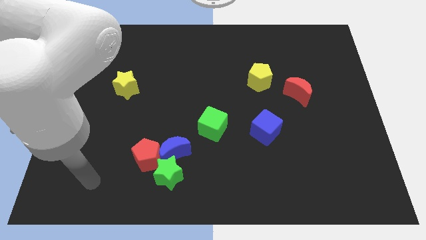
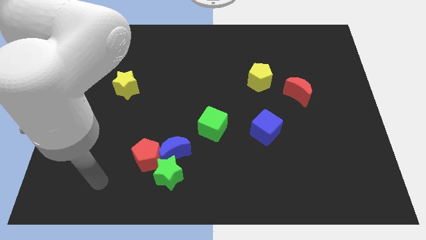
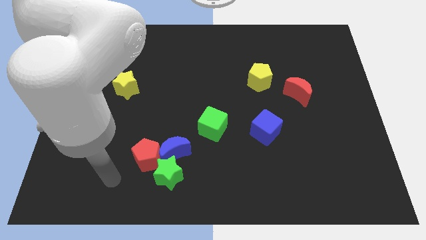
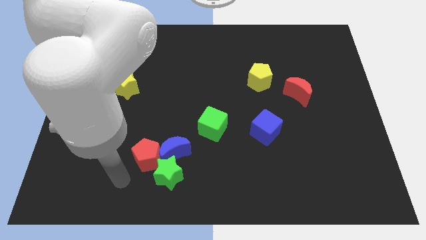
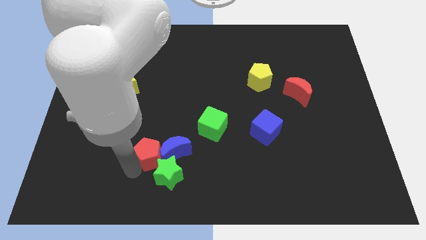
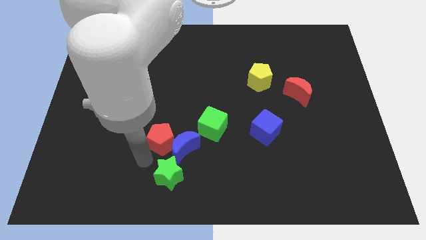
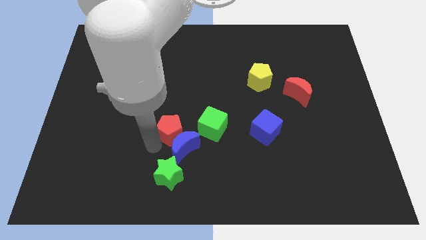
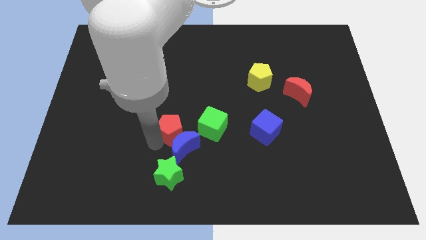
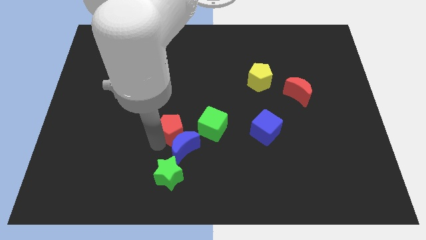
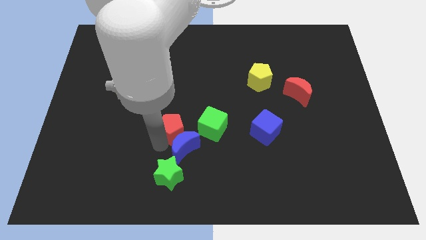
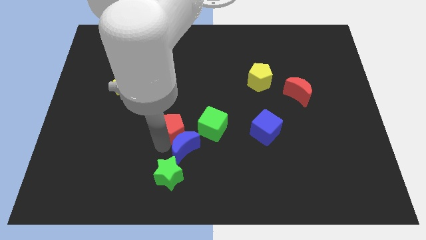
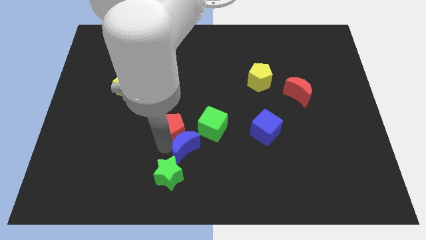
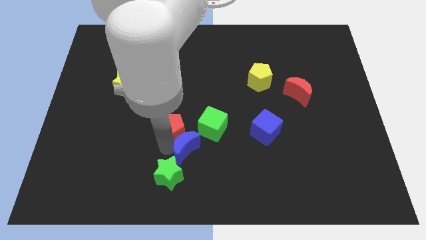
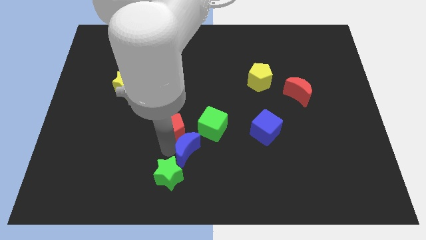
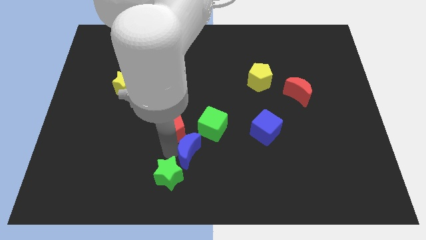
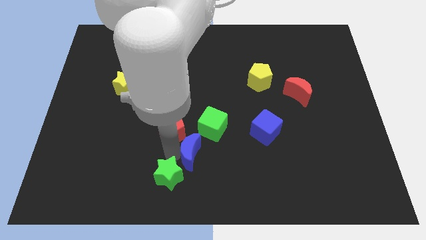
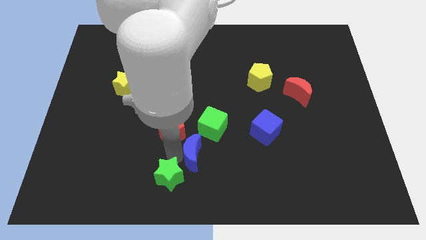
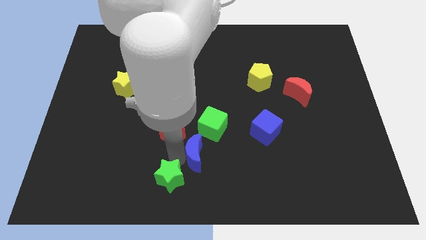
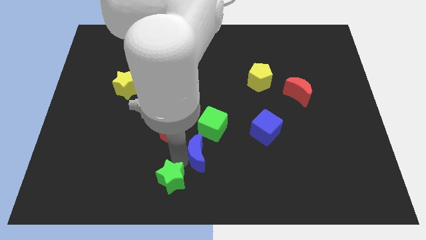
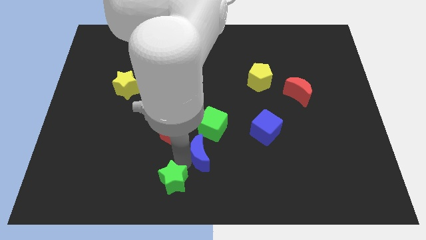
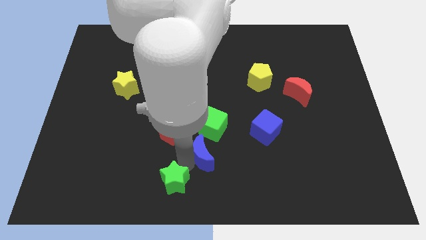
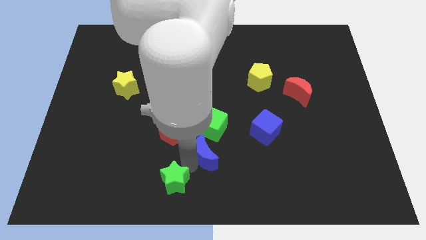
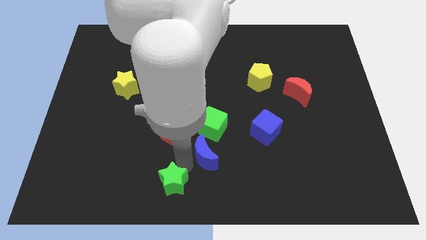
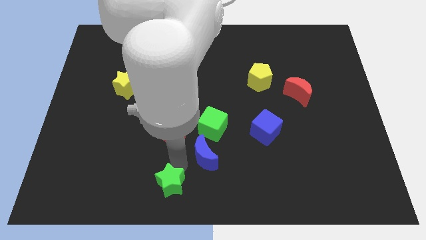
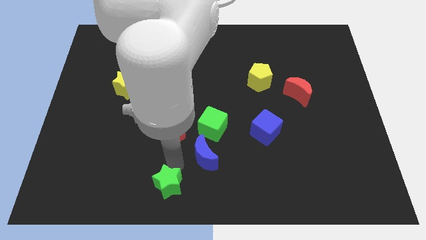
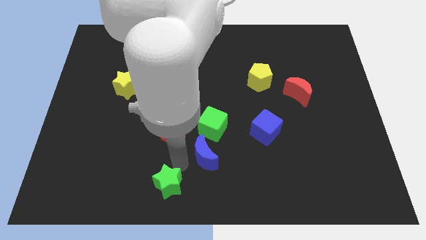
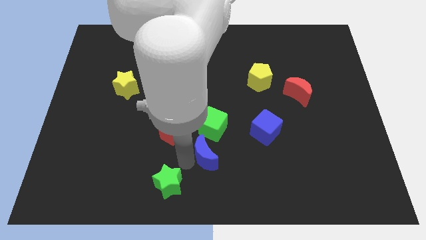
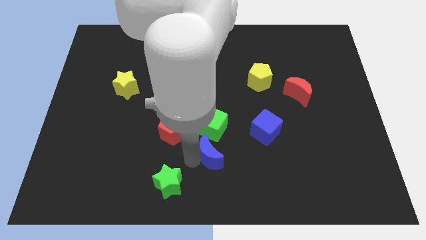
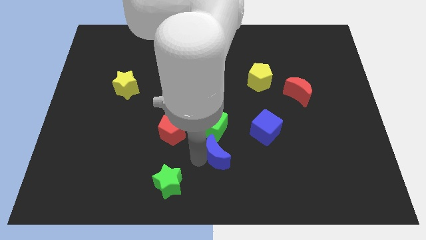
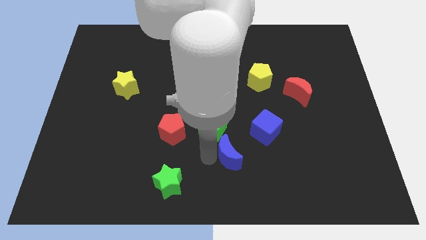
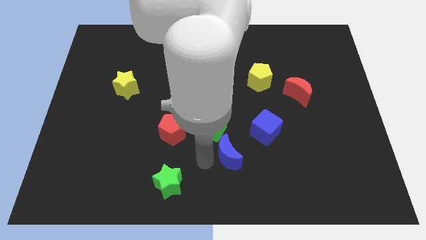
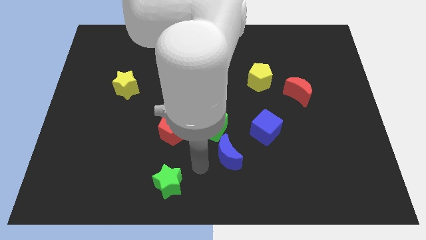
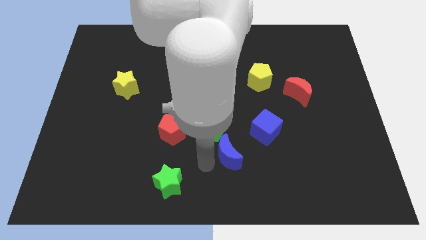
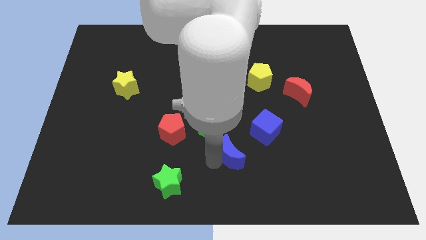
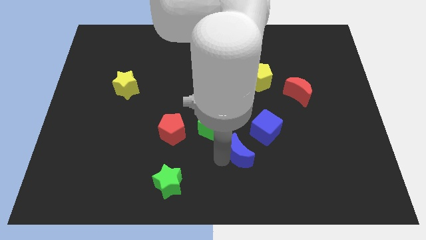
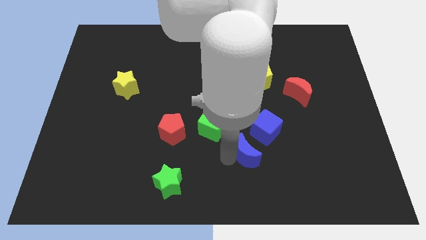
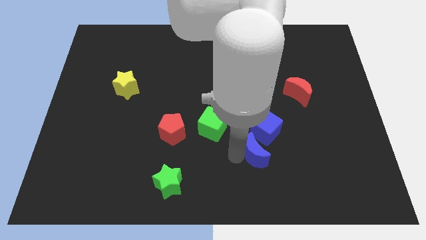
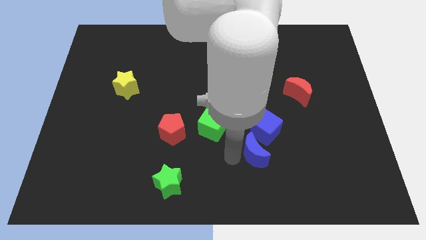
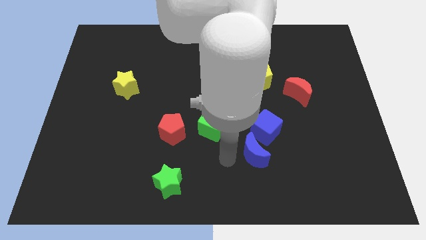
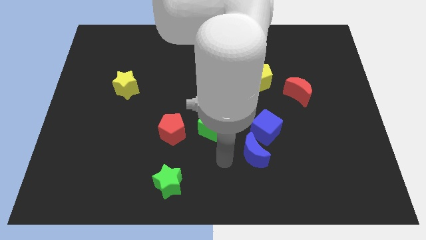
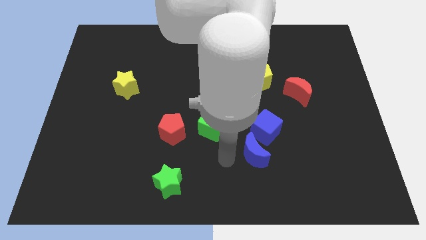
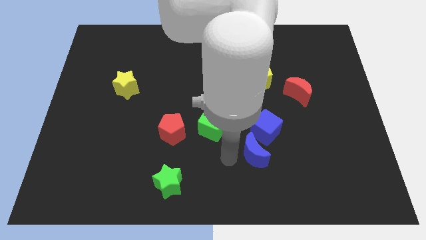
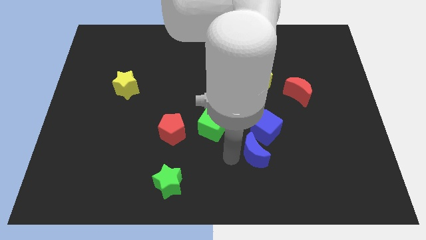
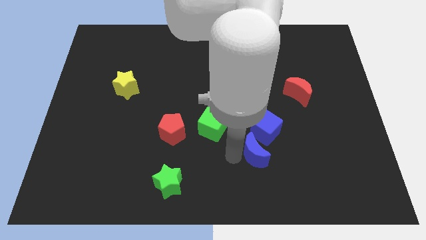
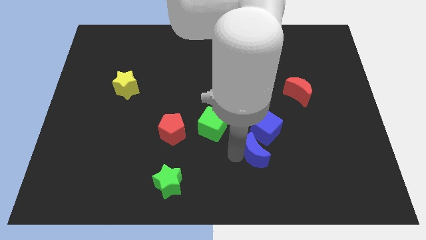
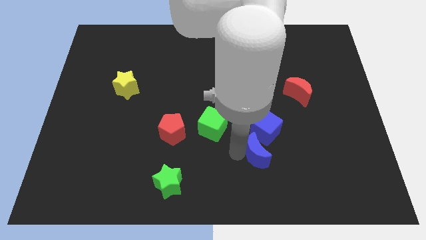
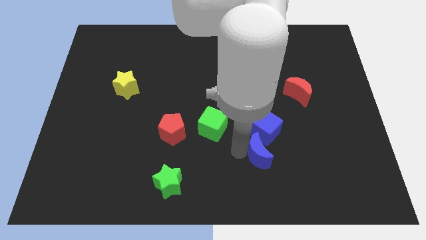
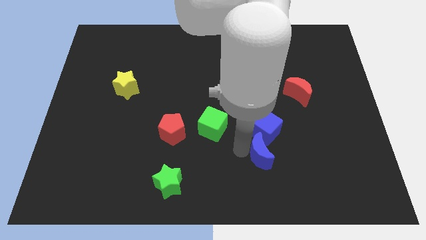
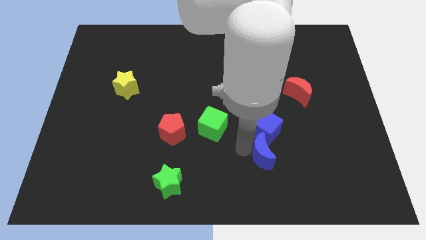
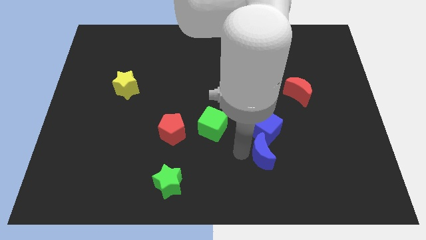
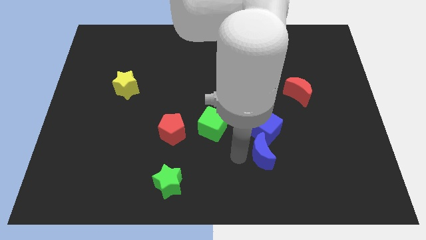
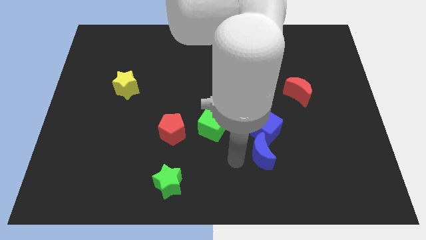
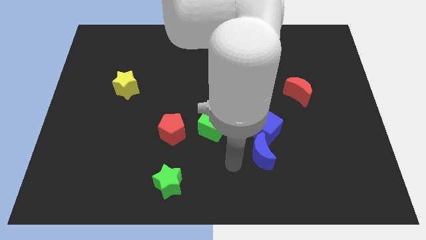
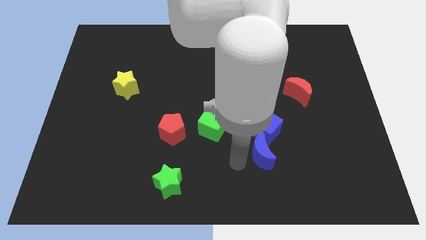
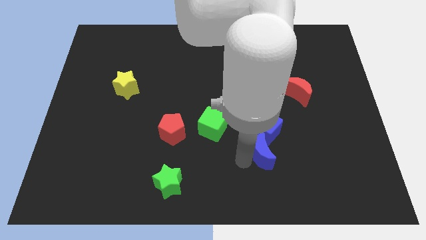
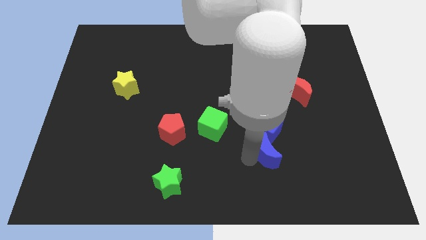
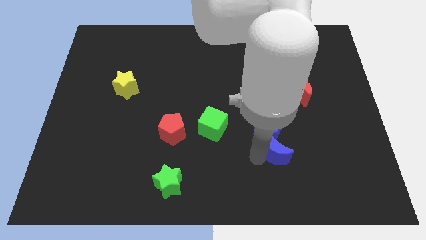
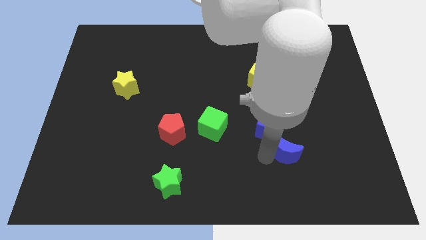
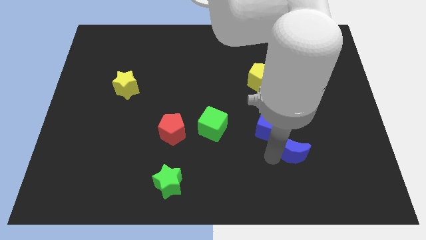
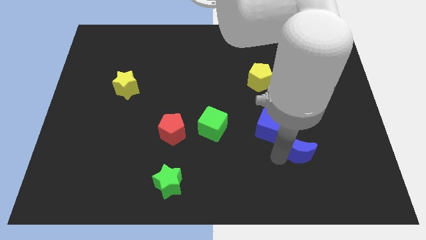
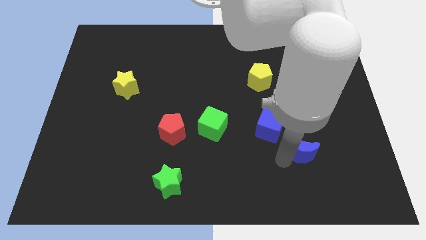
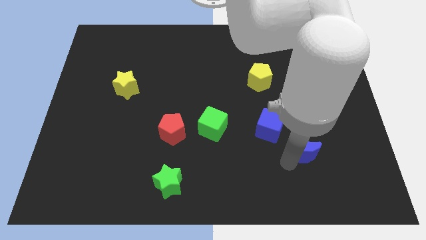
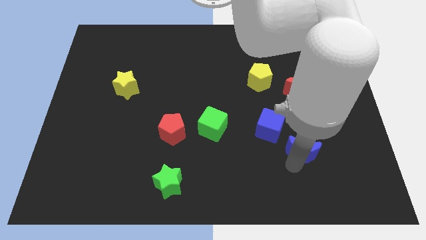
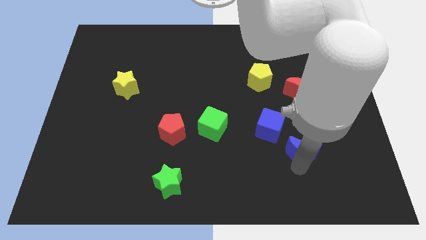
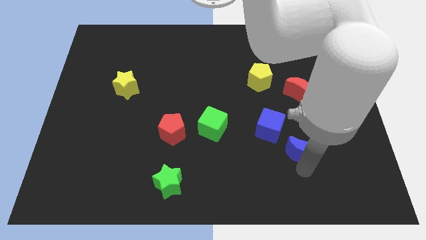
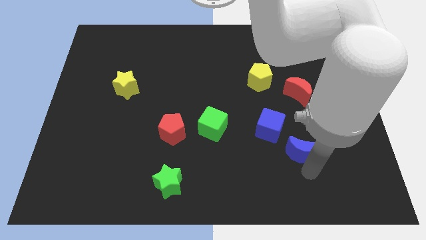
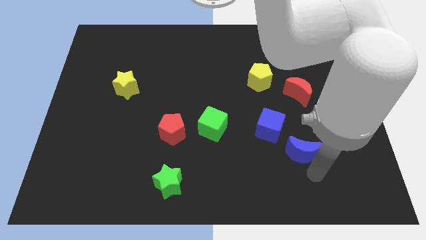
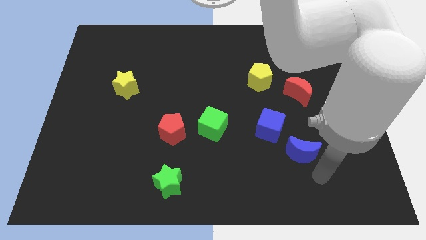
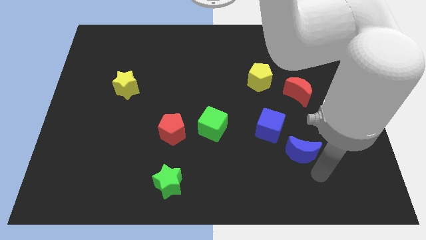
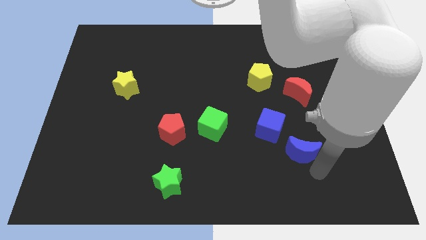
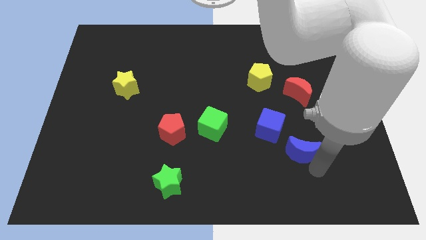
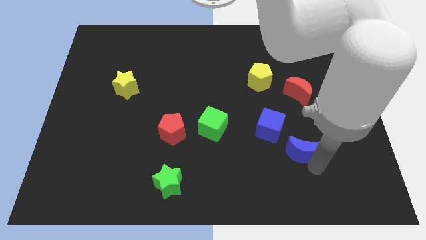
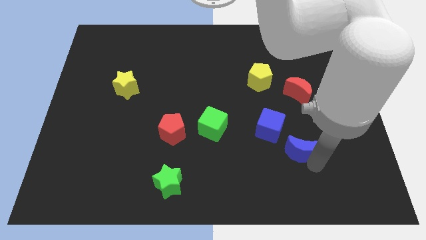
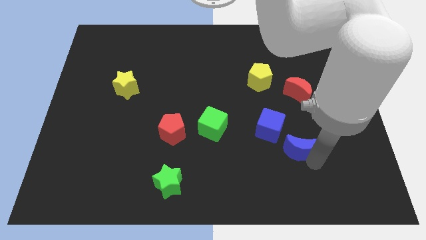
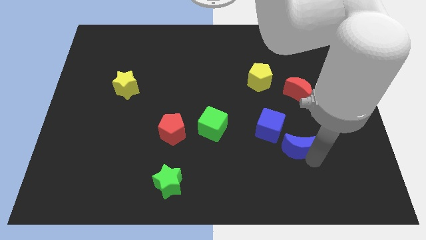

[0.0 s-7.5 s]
slide the blue moon to the bottom side of the red moon
